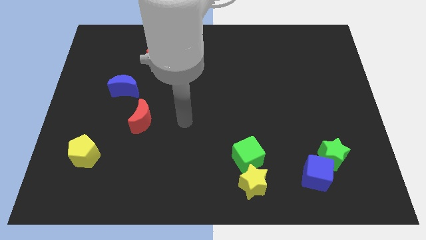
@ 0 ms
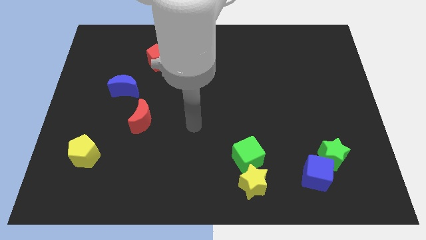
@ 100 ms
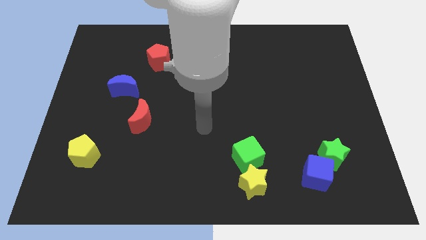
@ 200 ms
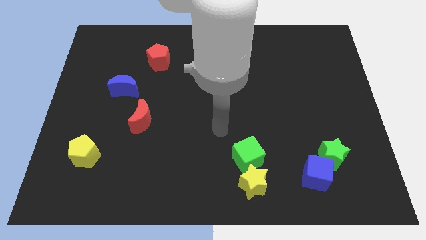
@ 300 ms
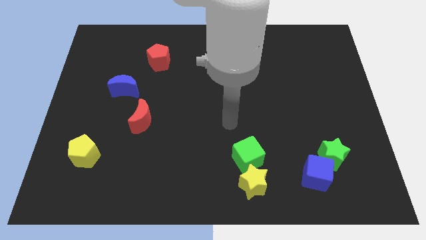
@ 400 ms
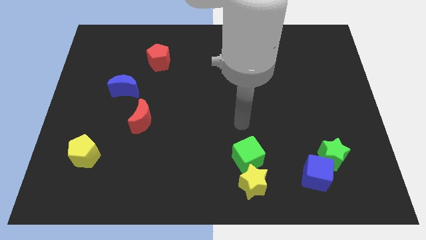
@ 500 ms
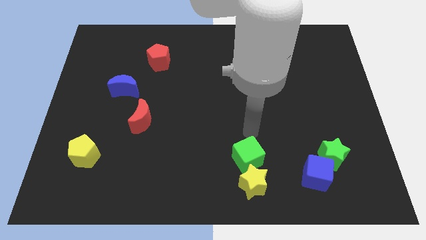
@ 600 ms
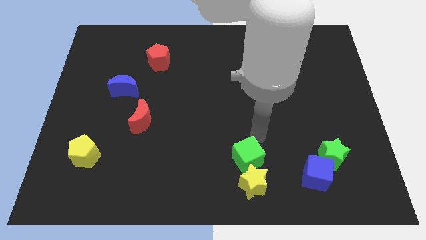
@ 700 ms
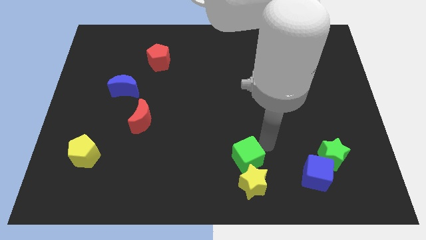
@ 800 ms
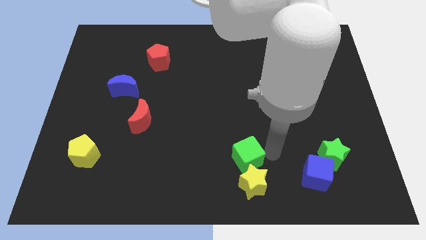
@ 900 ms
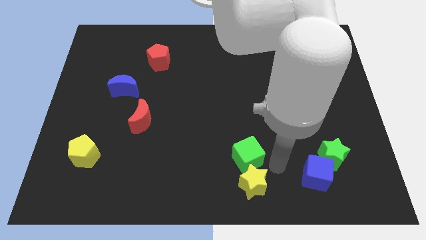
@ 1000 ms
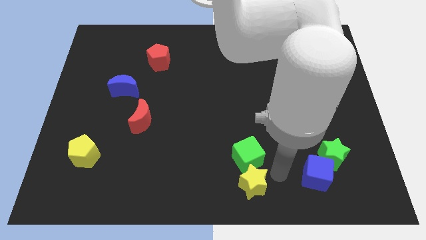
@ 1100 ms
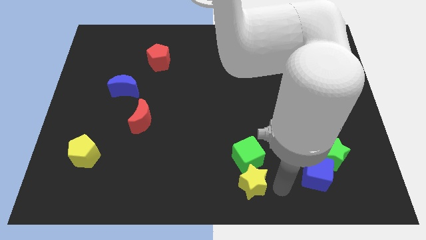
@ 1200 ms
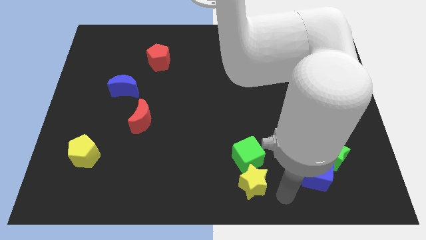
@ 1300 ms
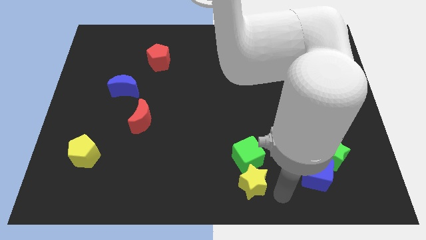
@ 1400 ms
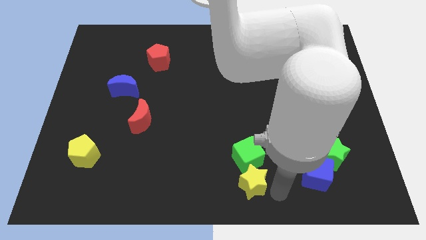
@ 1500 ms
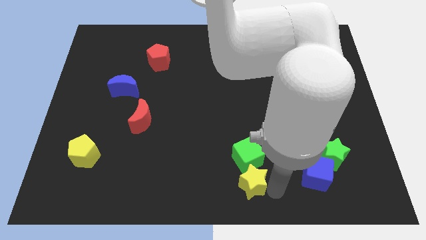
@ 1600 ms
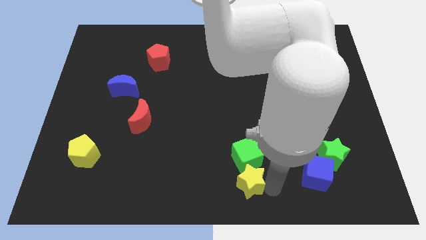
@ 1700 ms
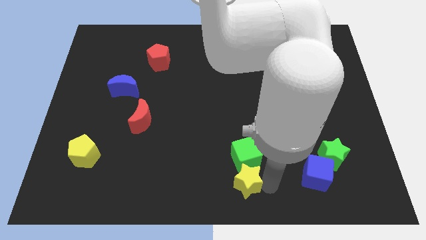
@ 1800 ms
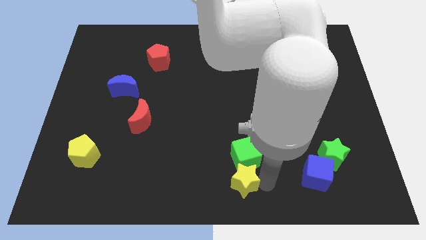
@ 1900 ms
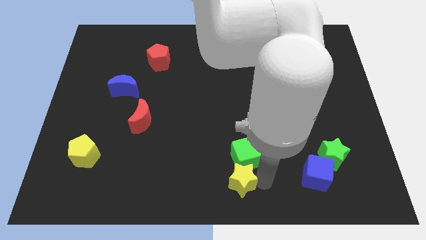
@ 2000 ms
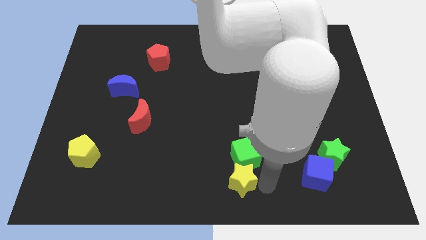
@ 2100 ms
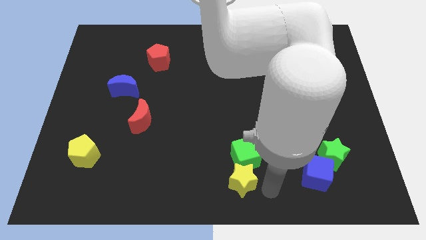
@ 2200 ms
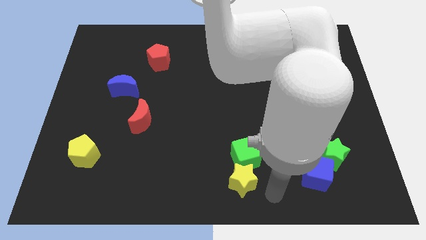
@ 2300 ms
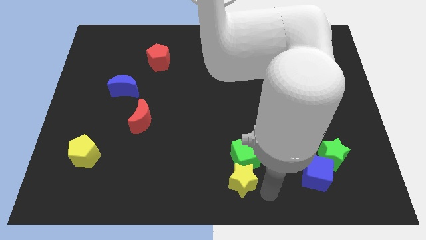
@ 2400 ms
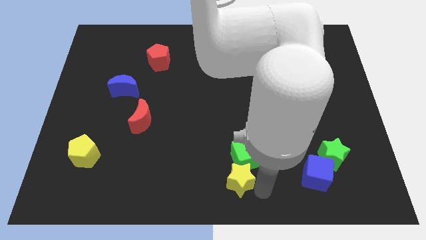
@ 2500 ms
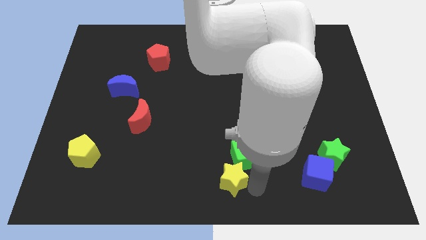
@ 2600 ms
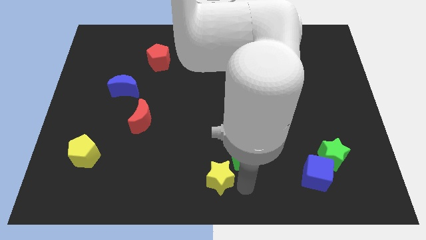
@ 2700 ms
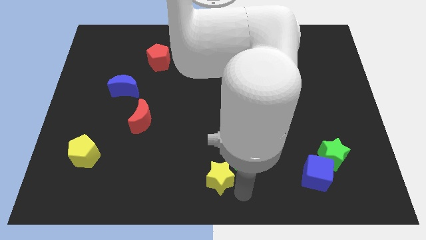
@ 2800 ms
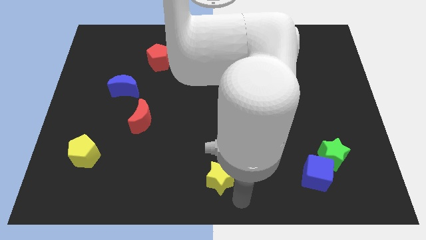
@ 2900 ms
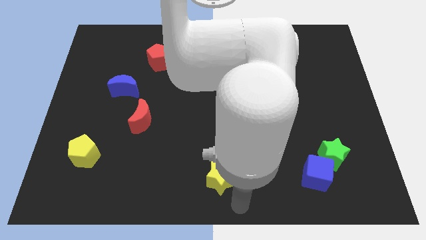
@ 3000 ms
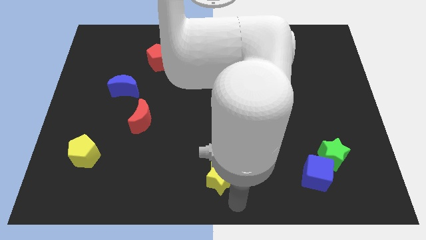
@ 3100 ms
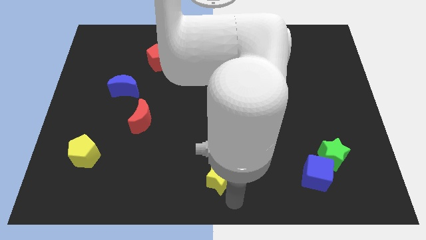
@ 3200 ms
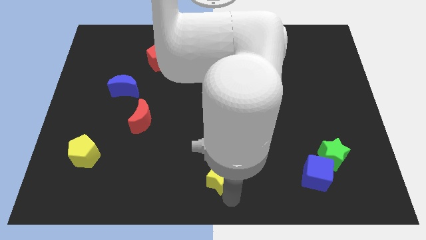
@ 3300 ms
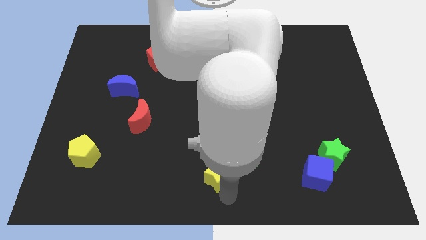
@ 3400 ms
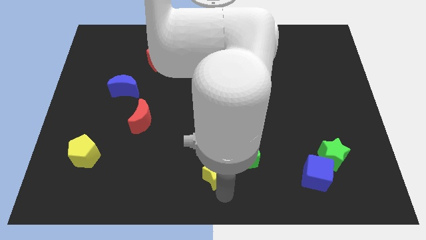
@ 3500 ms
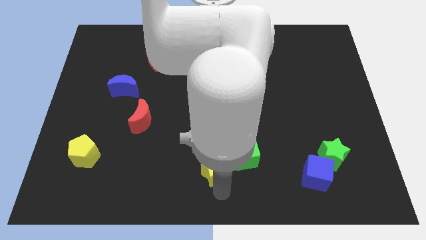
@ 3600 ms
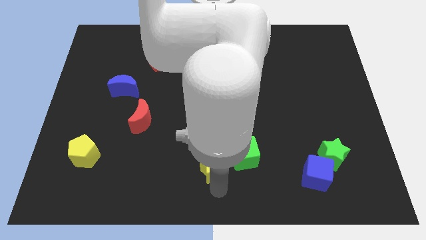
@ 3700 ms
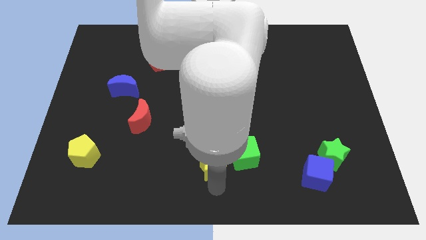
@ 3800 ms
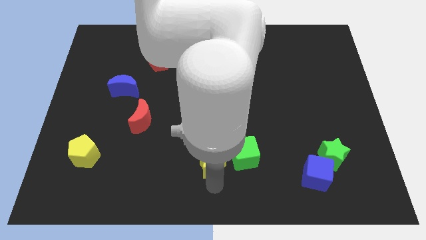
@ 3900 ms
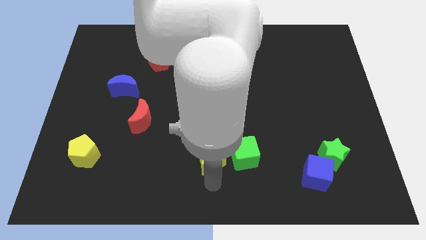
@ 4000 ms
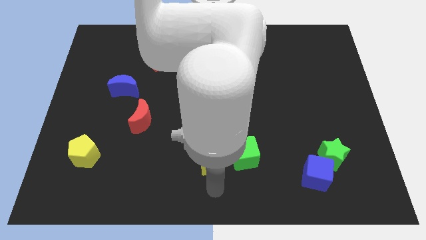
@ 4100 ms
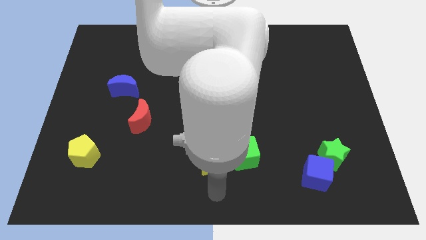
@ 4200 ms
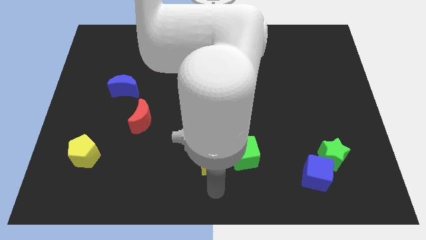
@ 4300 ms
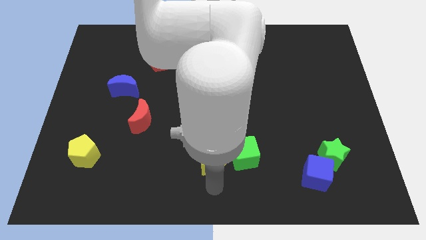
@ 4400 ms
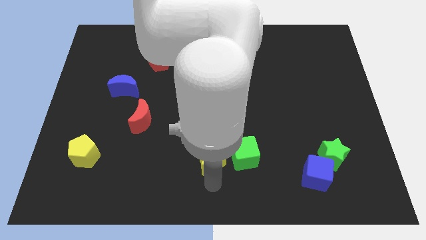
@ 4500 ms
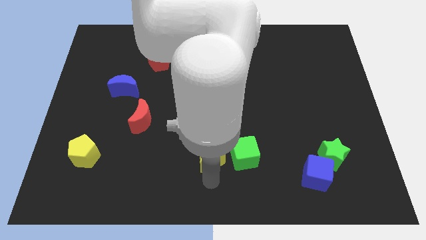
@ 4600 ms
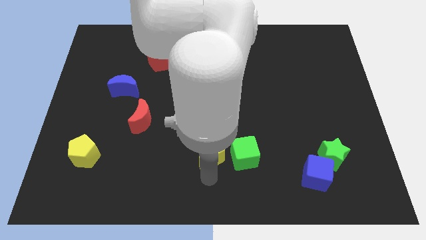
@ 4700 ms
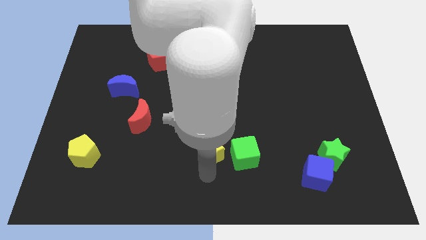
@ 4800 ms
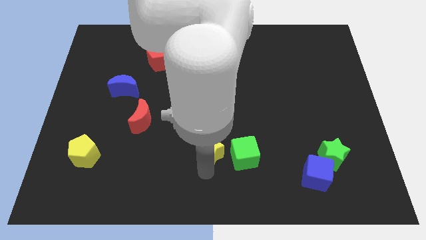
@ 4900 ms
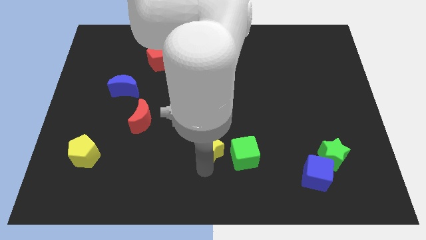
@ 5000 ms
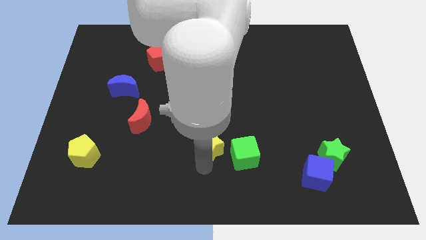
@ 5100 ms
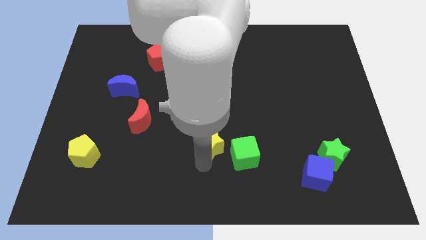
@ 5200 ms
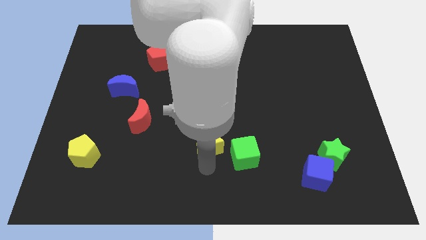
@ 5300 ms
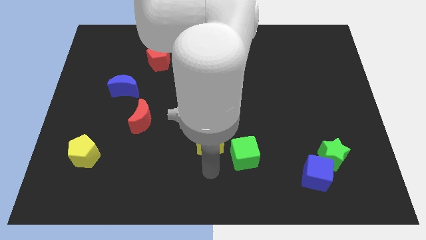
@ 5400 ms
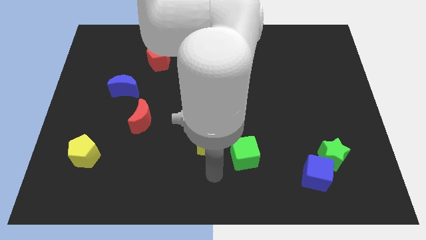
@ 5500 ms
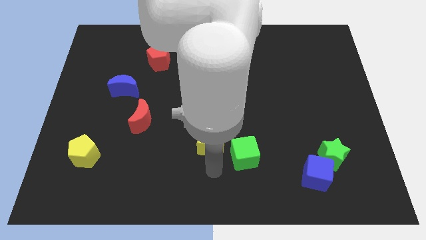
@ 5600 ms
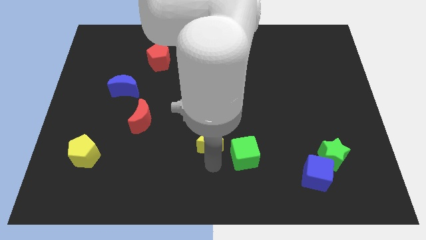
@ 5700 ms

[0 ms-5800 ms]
push the yellow star to the center
